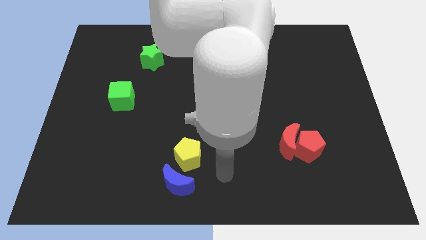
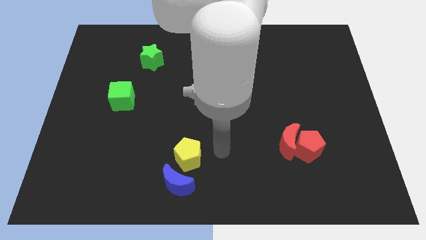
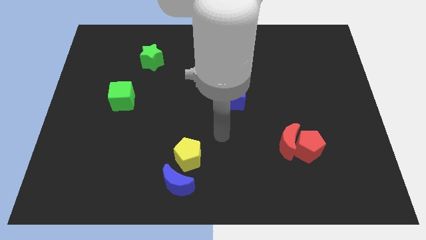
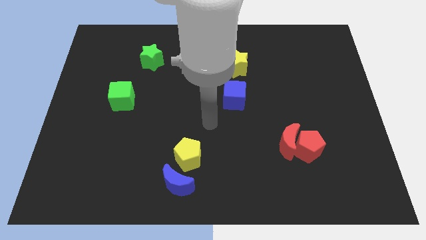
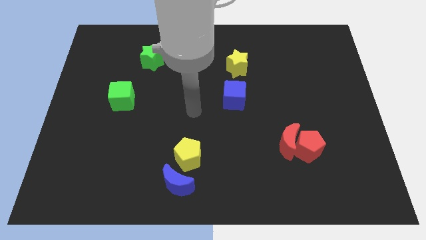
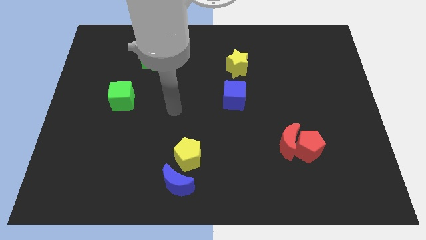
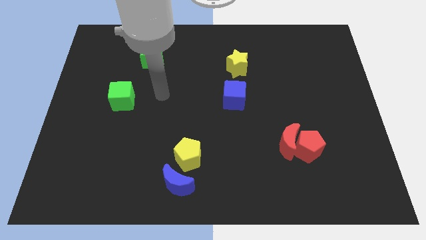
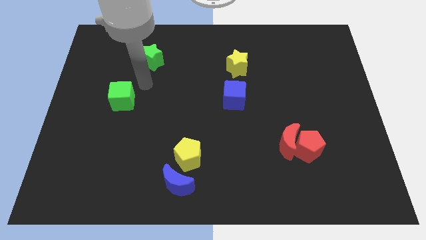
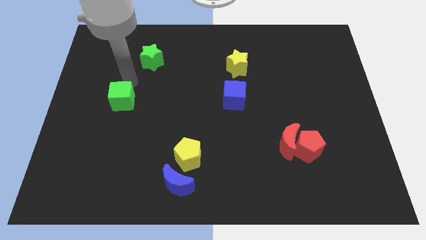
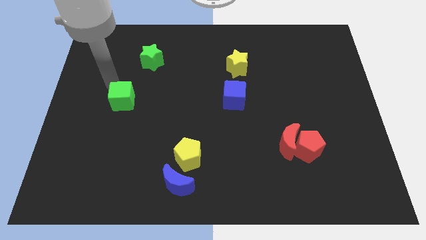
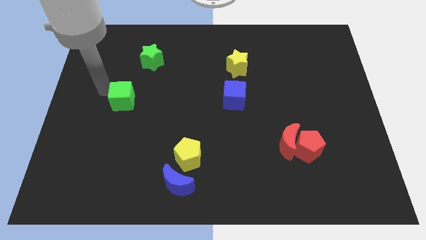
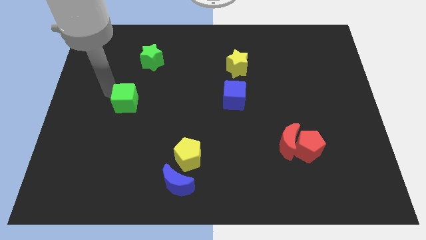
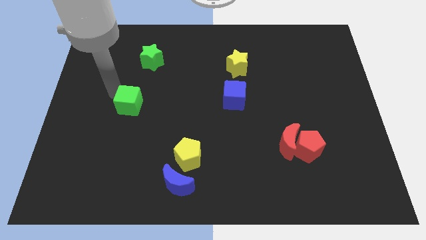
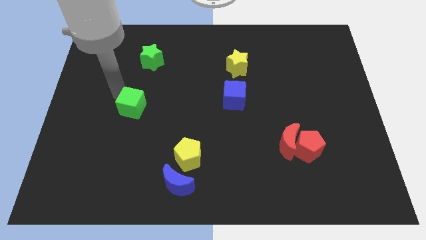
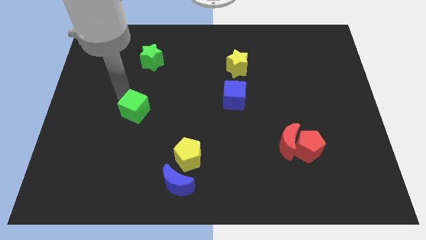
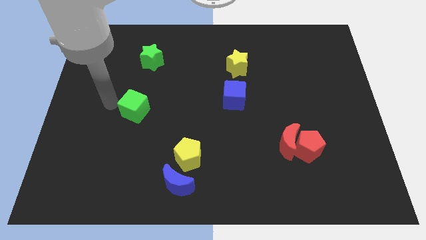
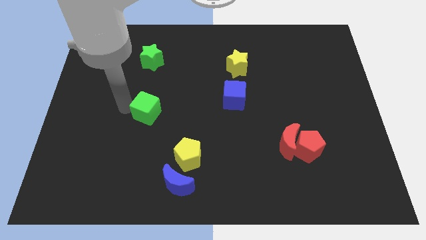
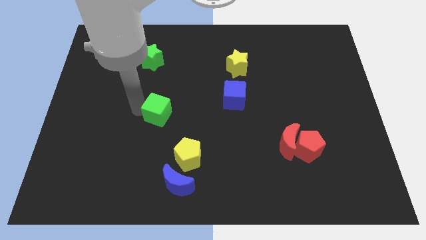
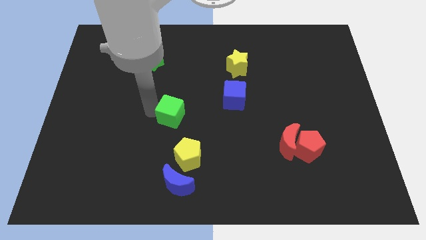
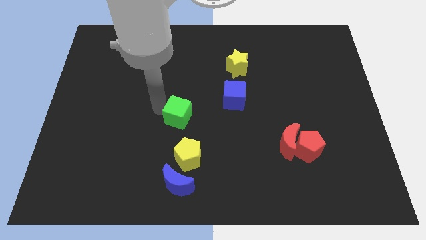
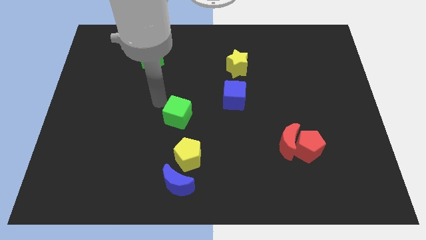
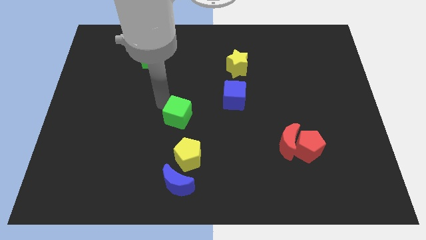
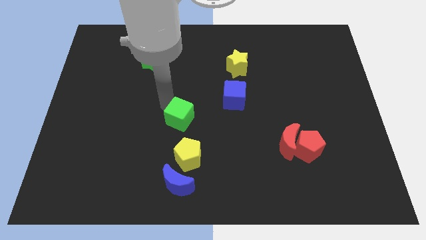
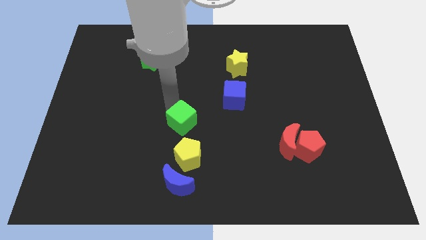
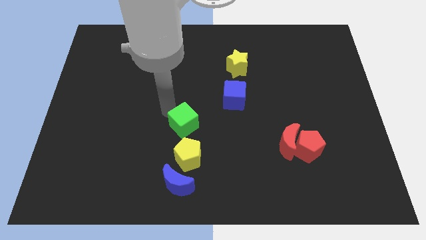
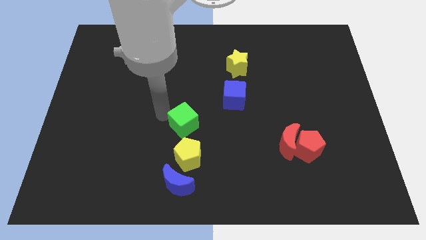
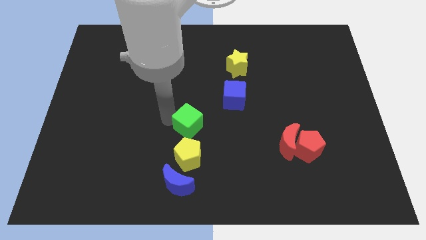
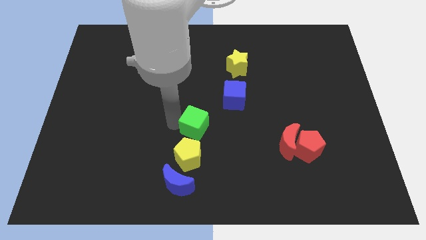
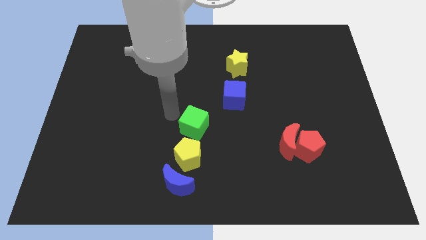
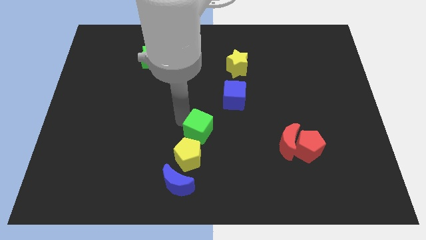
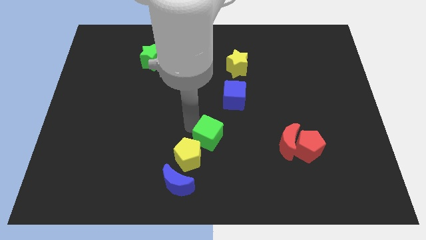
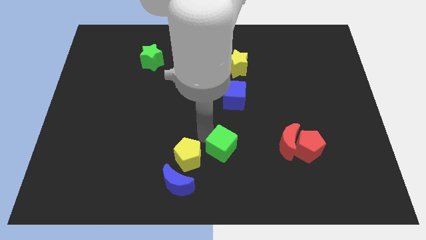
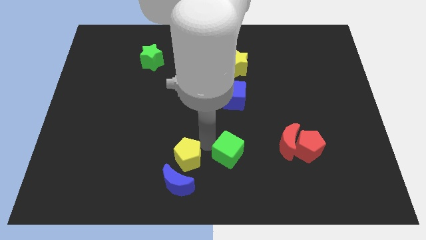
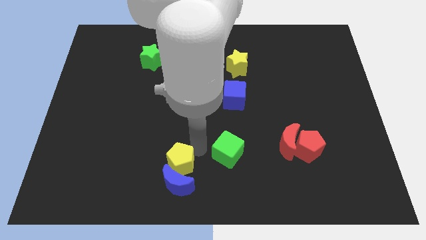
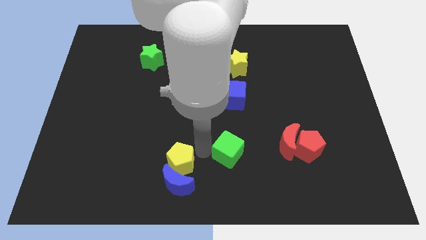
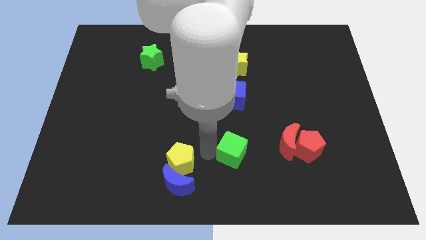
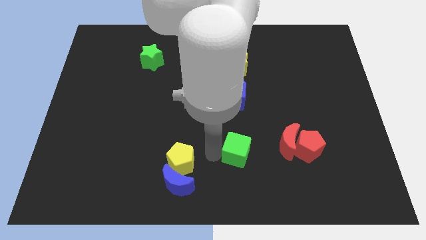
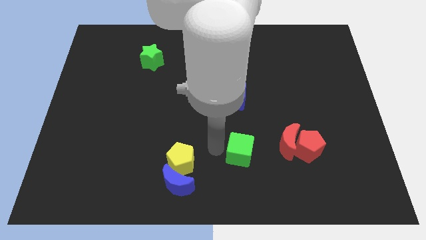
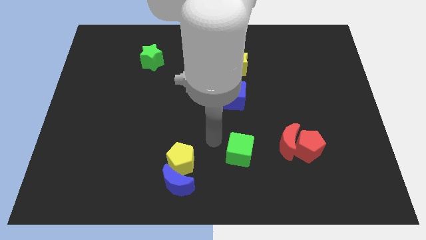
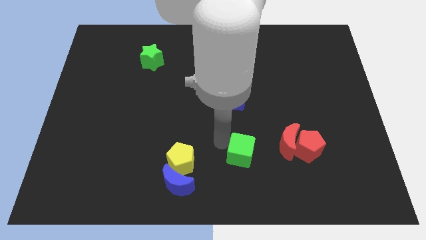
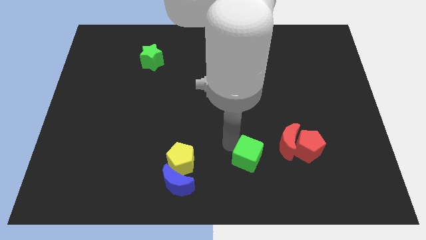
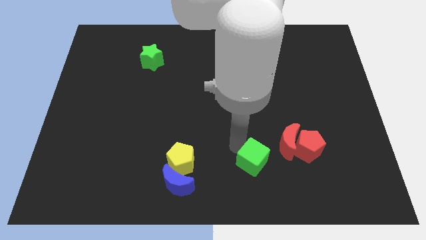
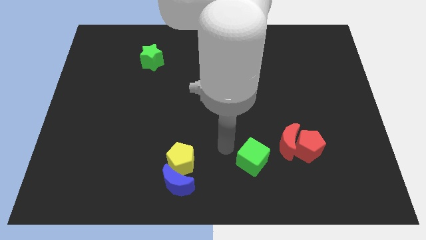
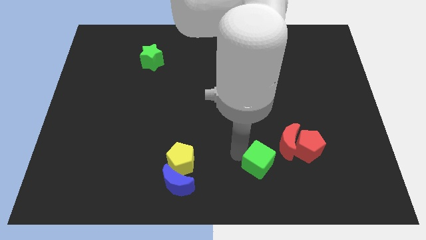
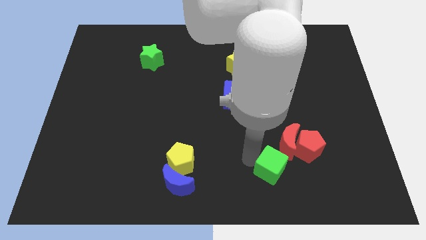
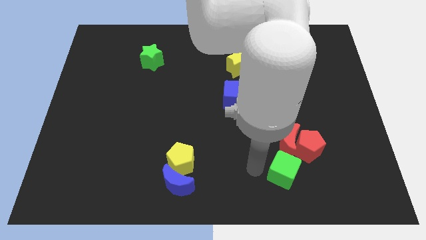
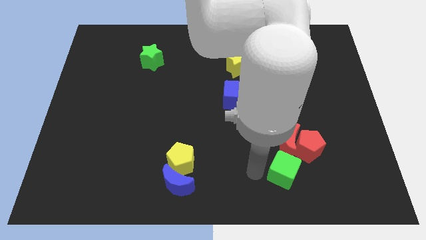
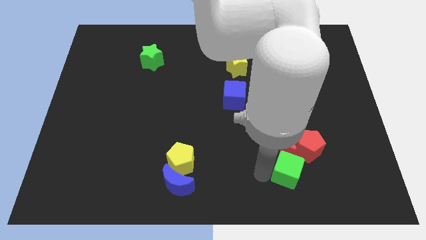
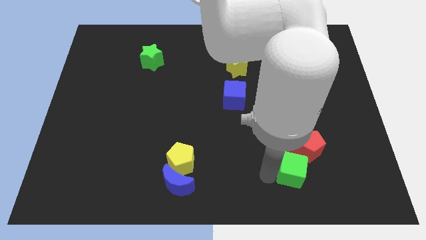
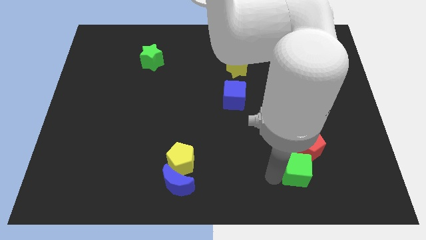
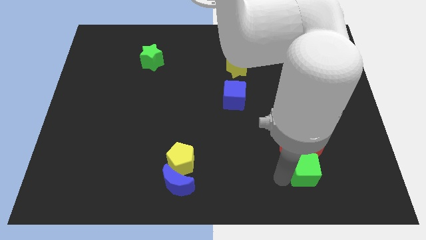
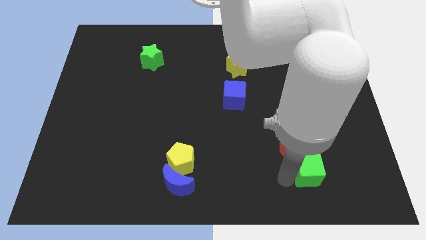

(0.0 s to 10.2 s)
put the green cube to the bottom right side of the red pentagon

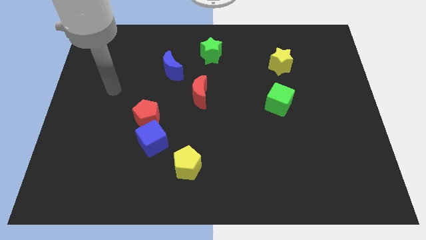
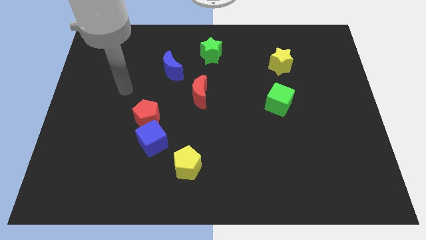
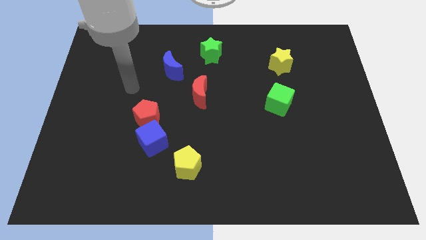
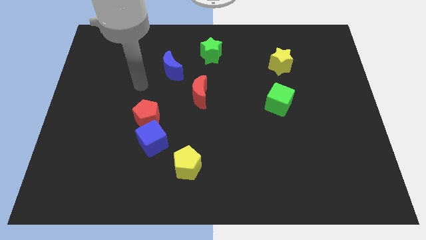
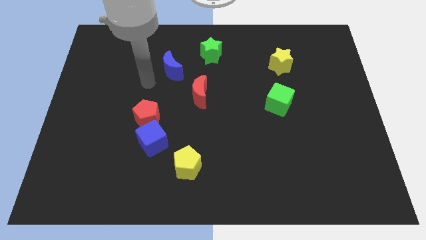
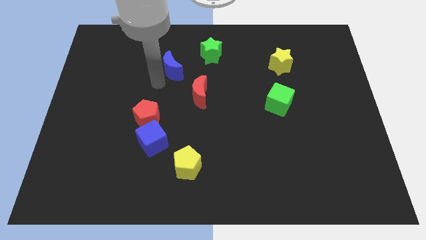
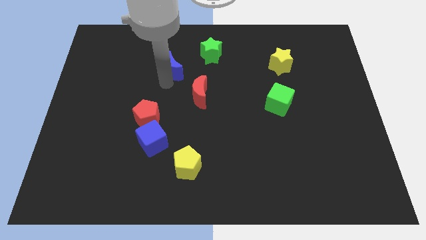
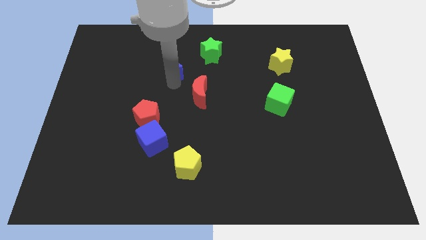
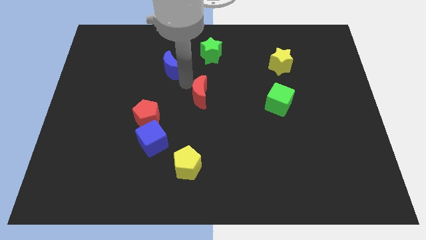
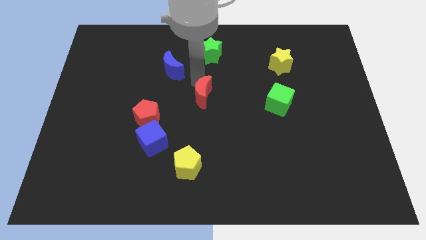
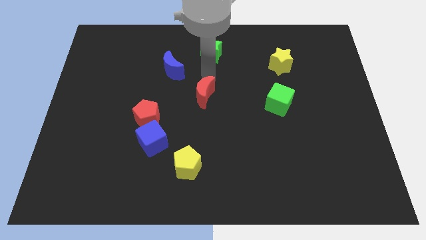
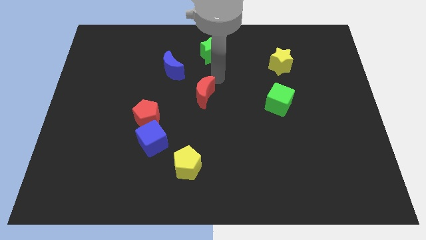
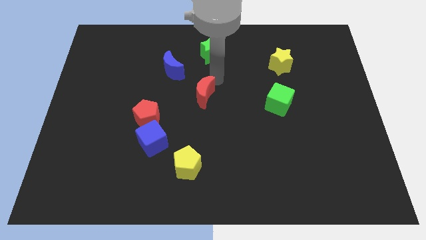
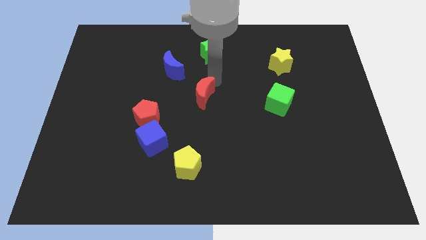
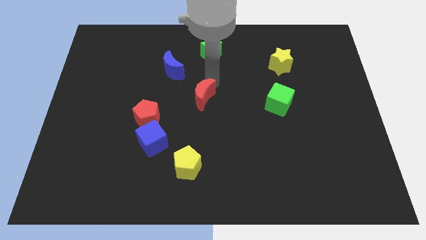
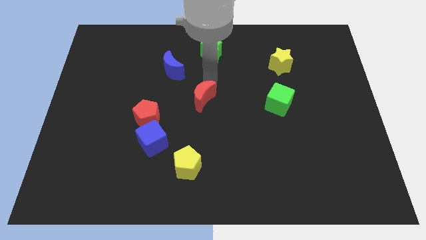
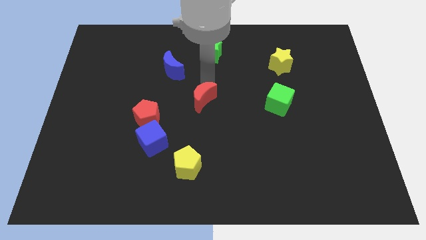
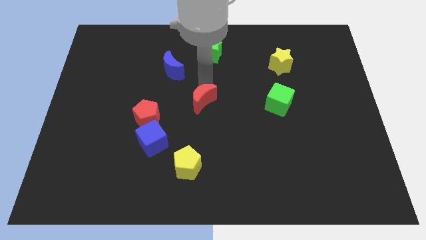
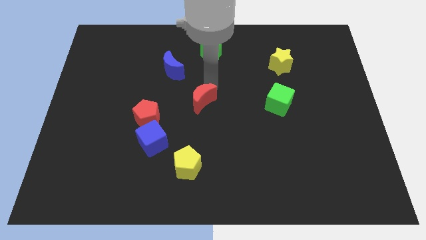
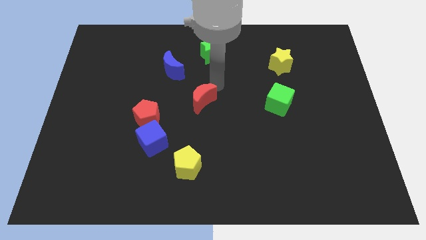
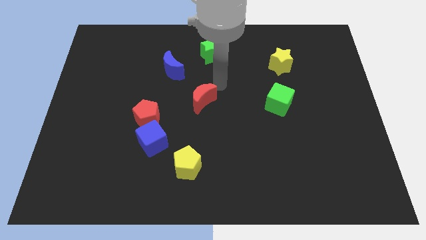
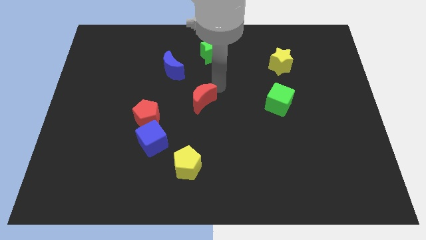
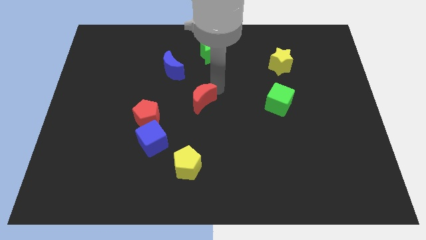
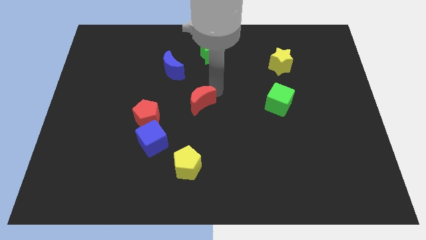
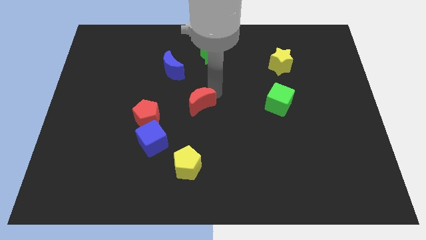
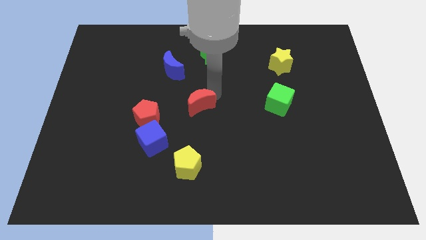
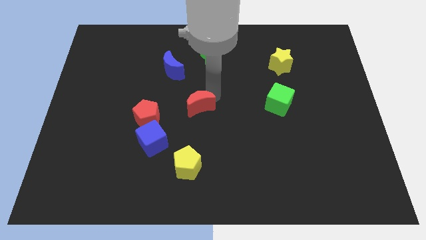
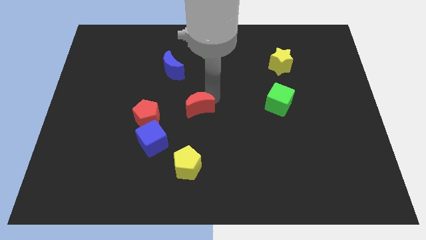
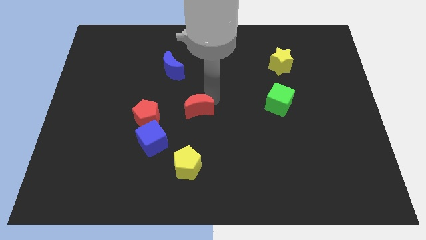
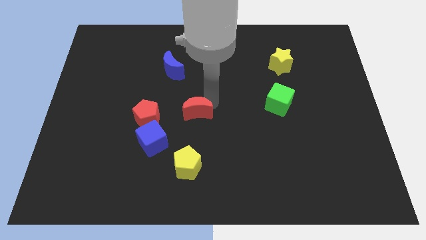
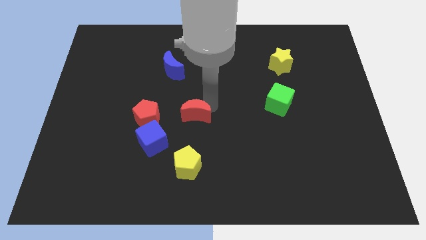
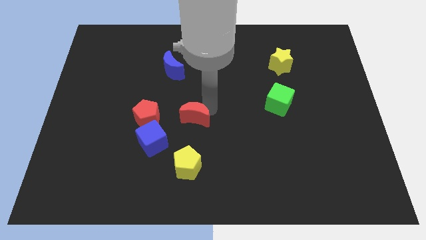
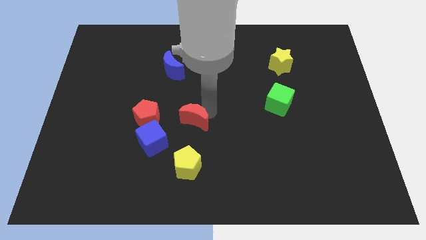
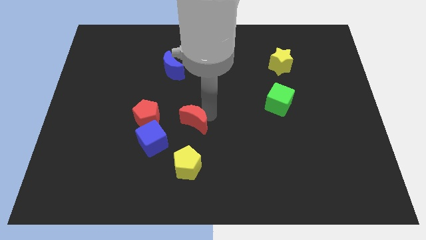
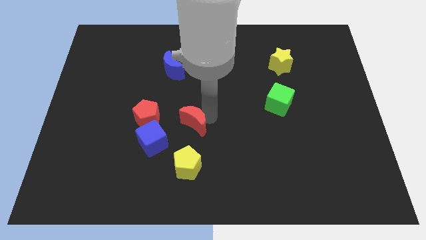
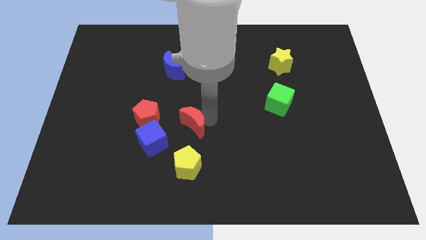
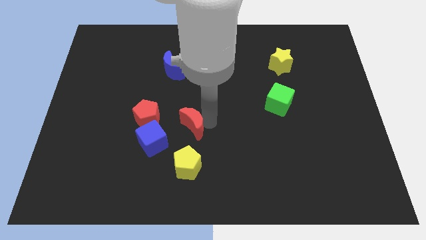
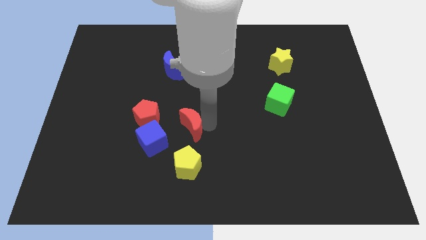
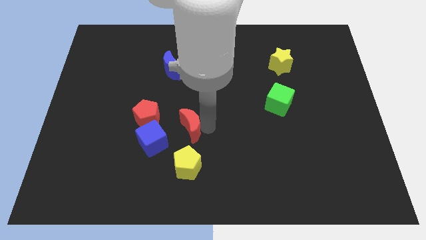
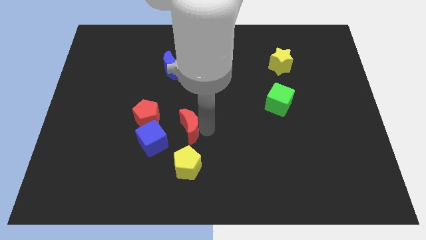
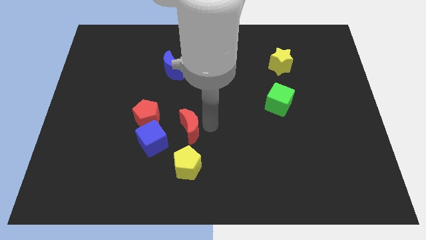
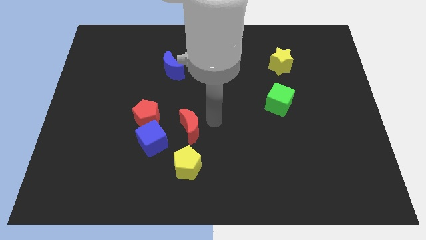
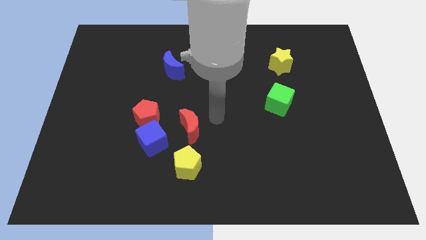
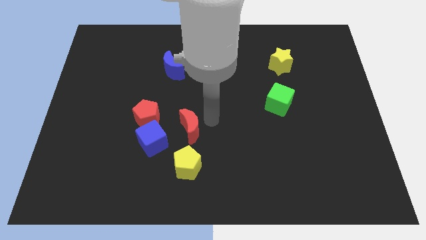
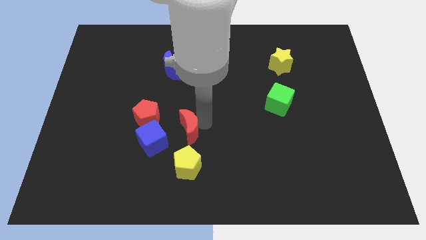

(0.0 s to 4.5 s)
move the red moon to the bottom right of the red pentagon
